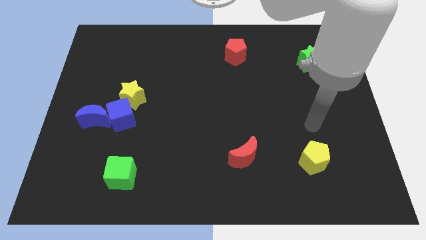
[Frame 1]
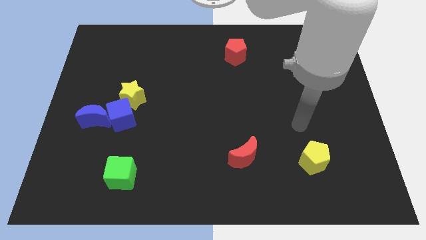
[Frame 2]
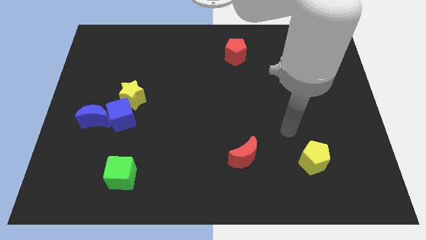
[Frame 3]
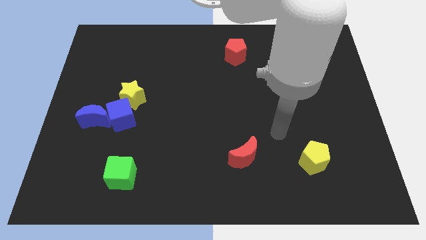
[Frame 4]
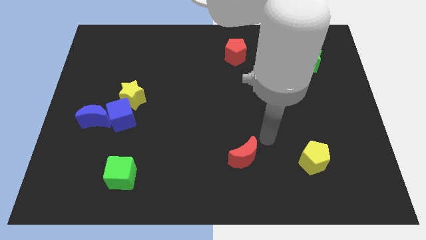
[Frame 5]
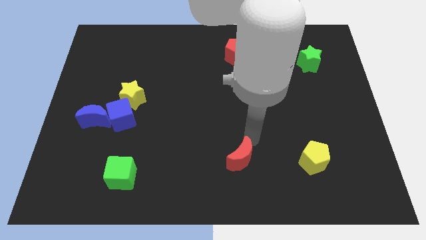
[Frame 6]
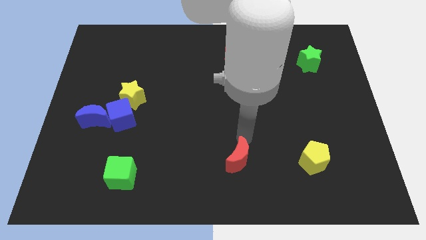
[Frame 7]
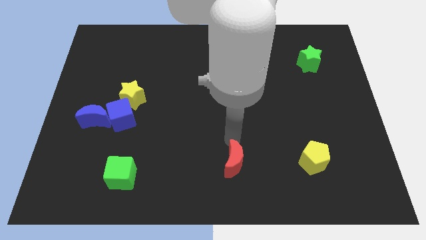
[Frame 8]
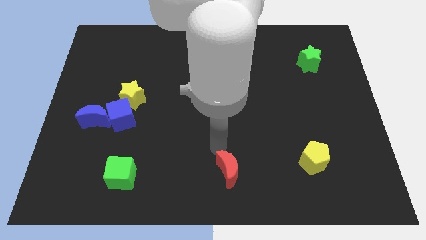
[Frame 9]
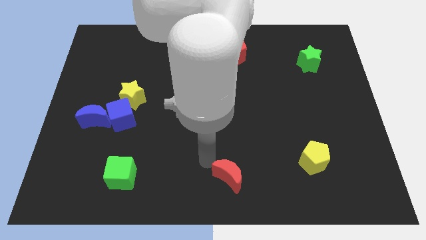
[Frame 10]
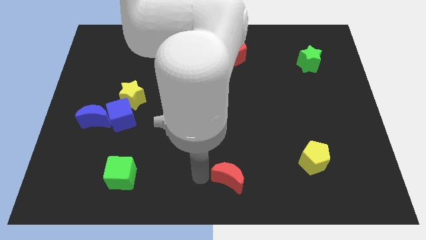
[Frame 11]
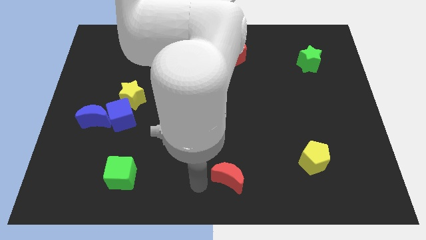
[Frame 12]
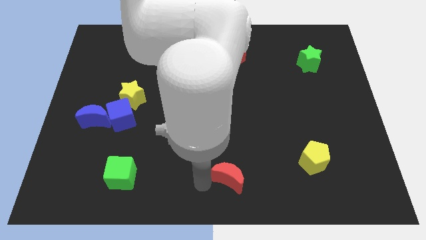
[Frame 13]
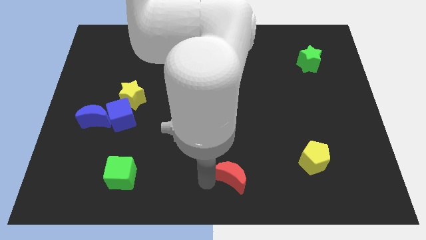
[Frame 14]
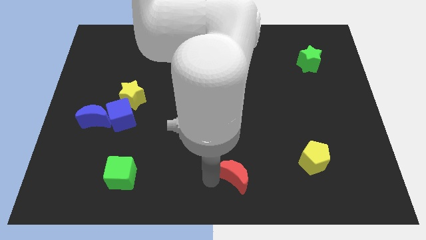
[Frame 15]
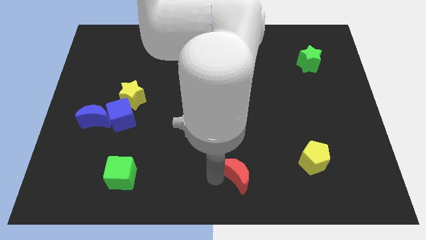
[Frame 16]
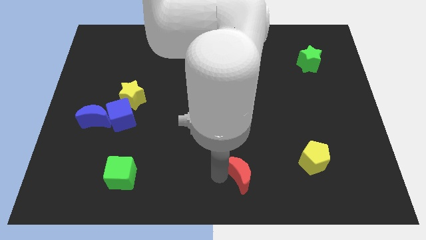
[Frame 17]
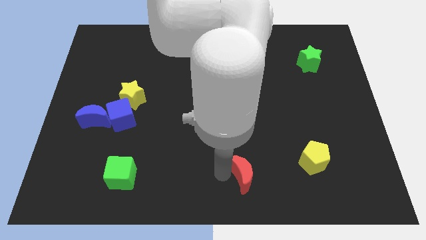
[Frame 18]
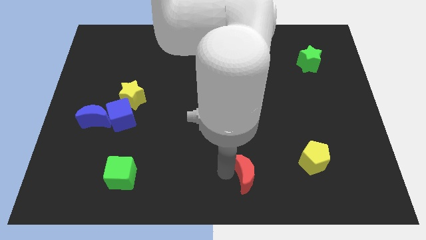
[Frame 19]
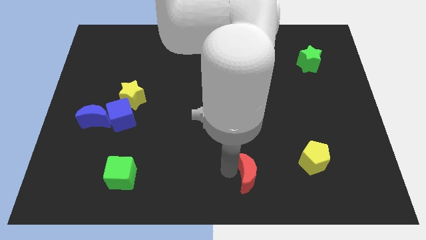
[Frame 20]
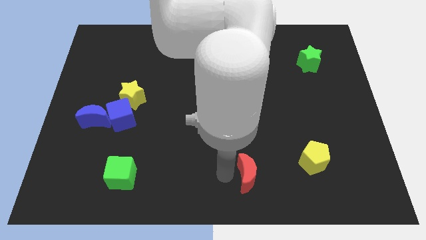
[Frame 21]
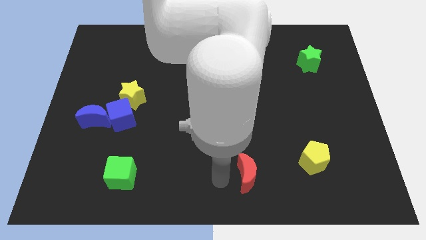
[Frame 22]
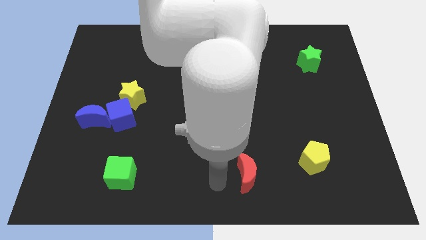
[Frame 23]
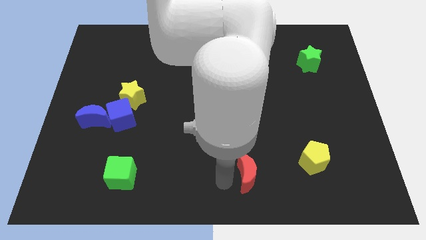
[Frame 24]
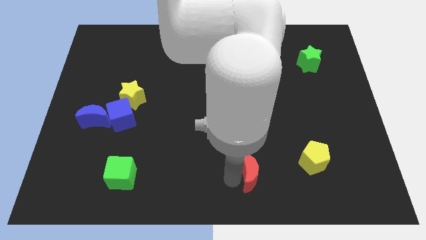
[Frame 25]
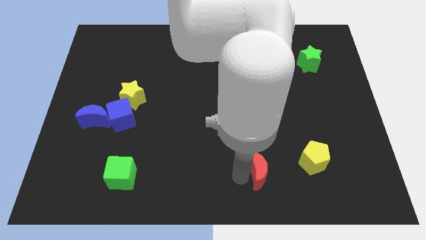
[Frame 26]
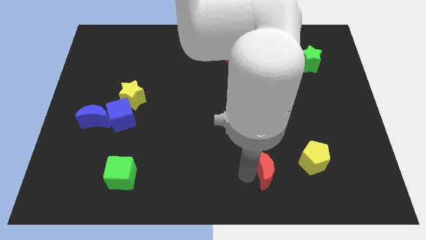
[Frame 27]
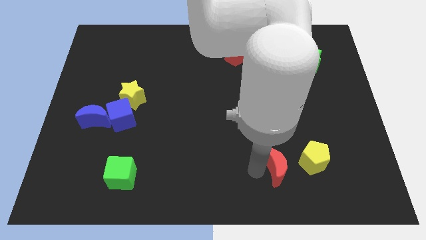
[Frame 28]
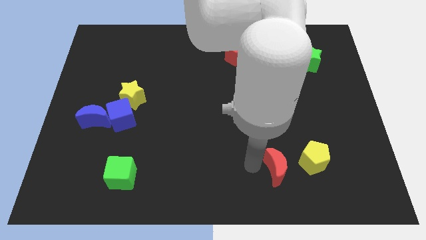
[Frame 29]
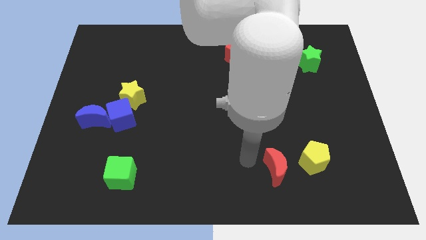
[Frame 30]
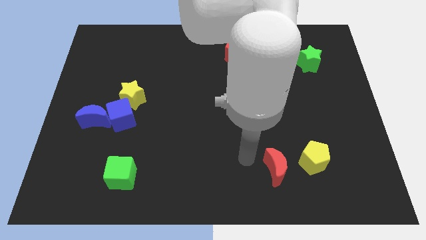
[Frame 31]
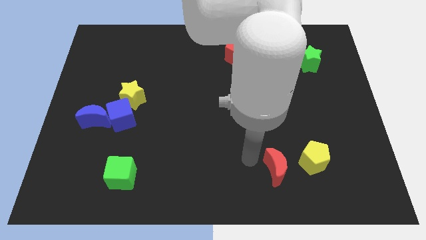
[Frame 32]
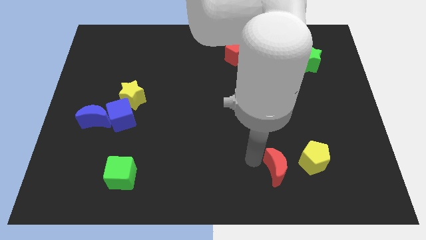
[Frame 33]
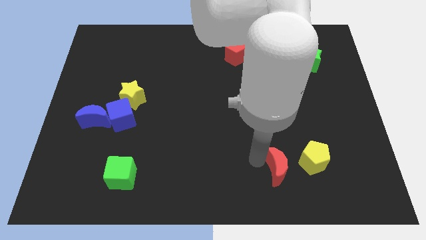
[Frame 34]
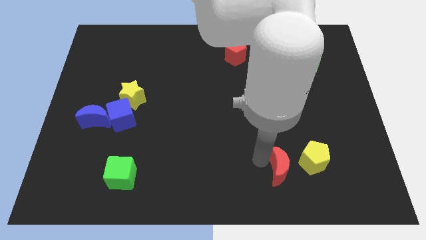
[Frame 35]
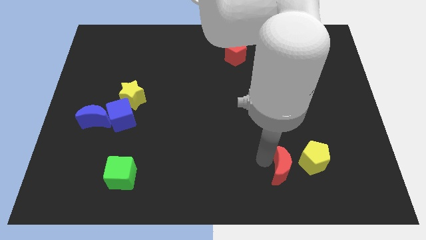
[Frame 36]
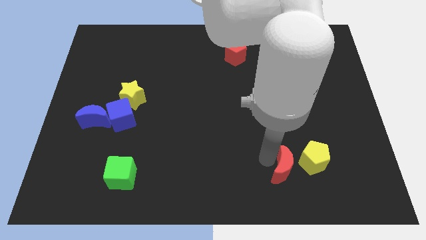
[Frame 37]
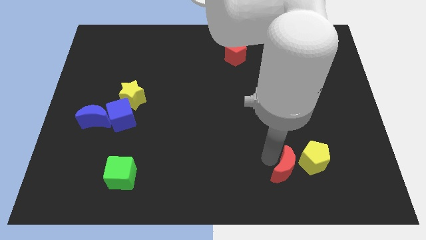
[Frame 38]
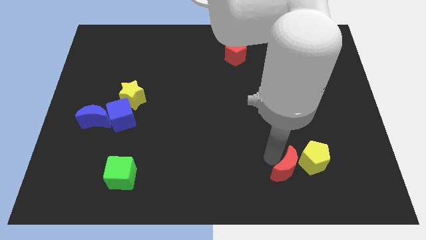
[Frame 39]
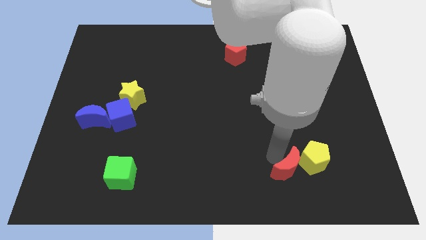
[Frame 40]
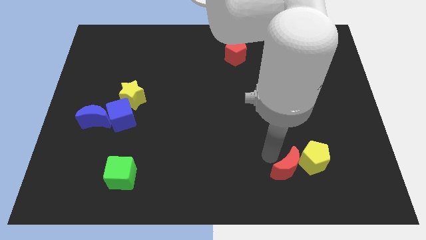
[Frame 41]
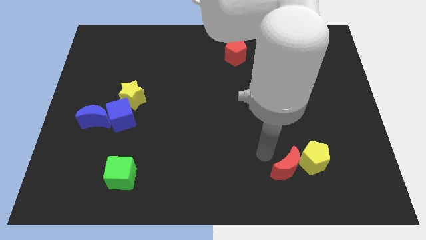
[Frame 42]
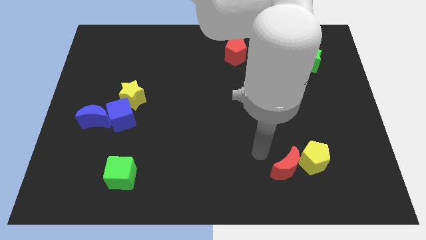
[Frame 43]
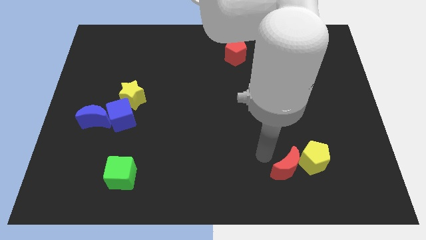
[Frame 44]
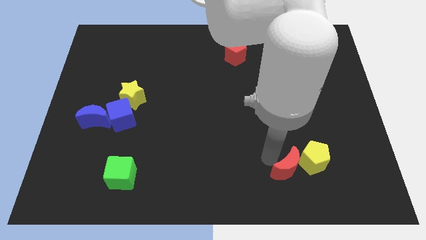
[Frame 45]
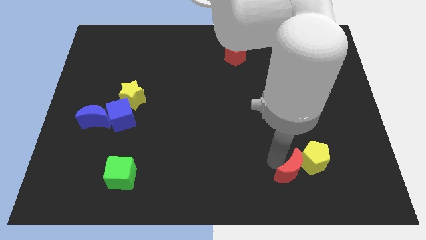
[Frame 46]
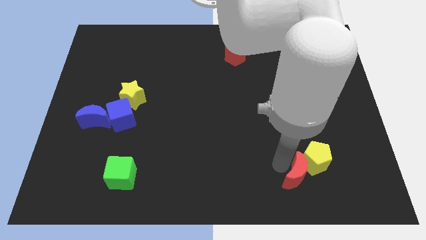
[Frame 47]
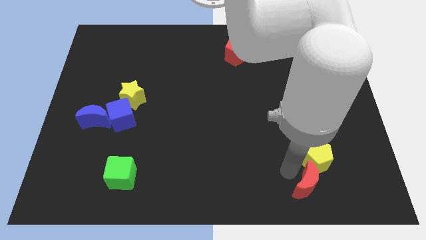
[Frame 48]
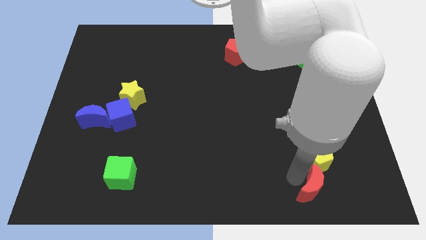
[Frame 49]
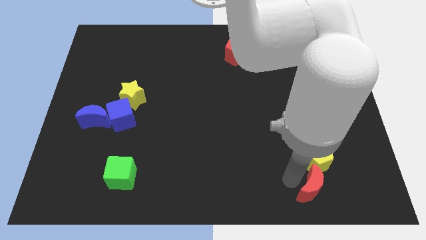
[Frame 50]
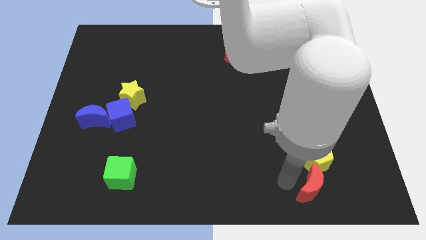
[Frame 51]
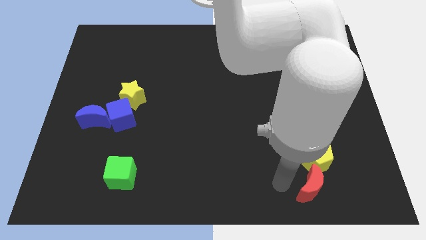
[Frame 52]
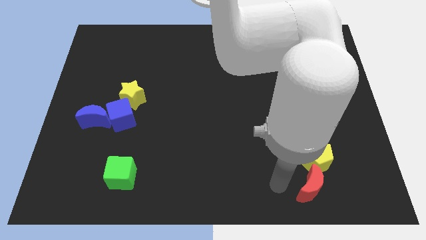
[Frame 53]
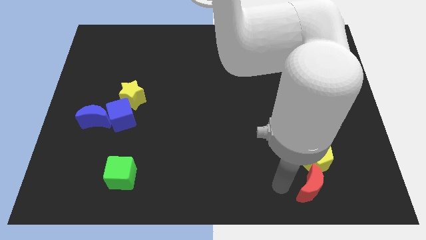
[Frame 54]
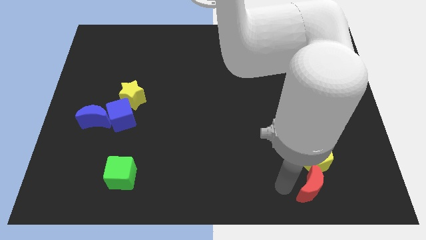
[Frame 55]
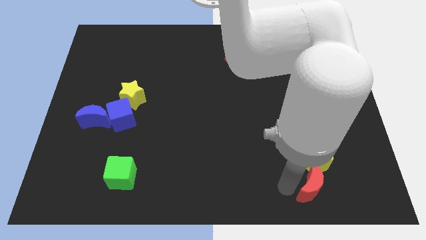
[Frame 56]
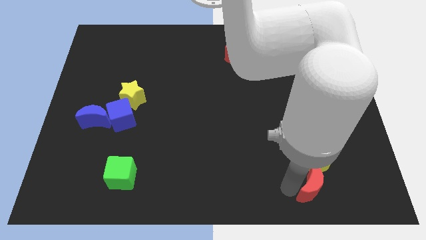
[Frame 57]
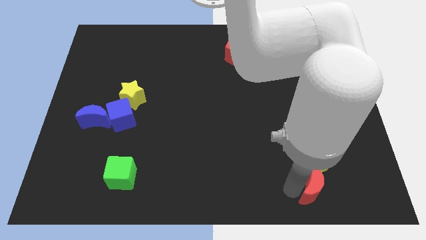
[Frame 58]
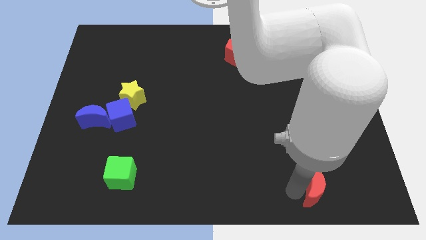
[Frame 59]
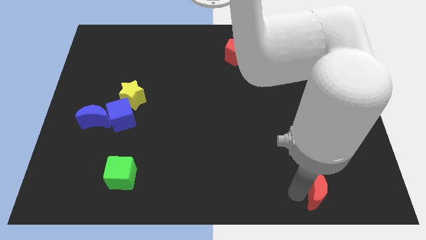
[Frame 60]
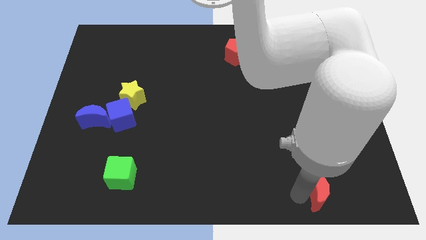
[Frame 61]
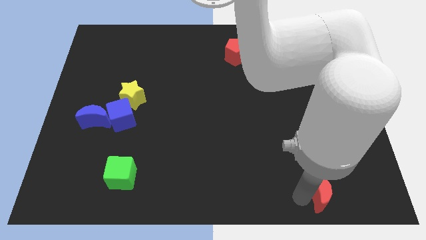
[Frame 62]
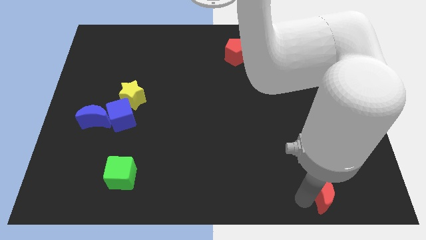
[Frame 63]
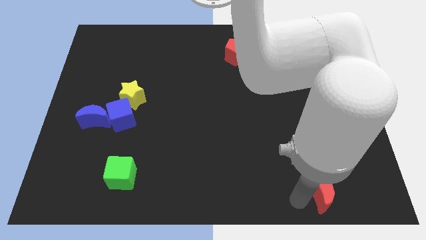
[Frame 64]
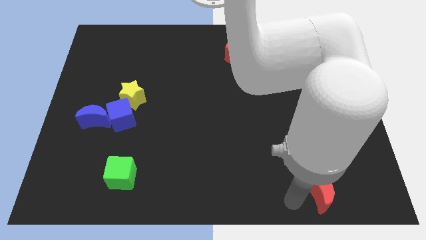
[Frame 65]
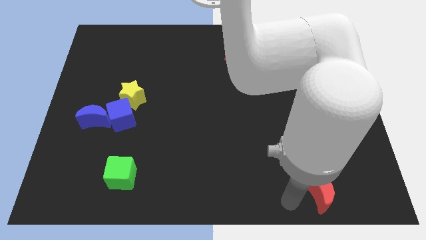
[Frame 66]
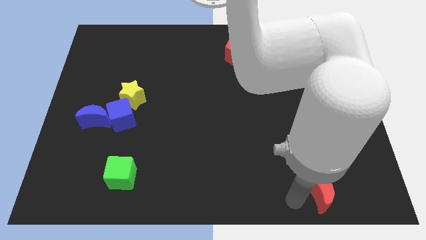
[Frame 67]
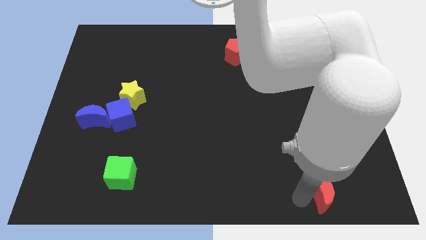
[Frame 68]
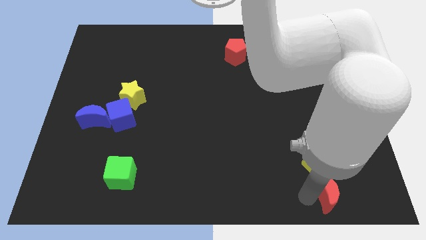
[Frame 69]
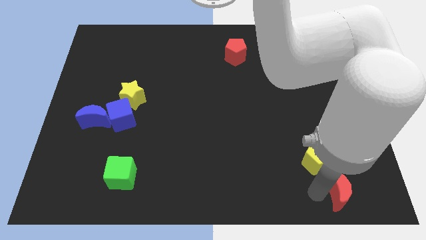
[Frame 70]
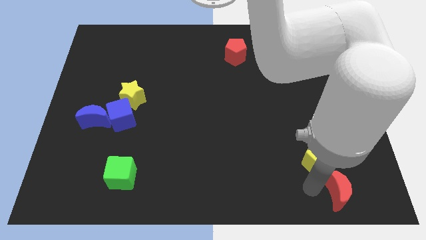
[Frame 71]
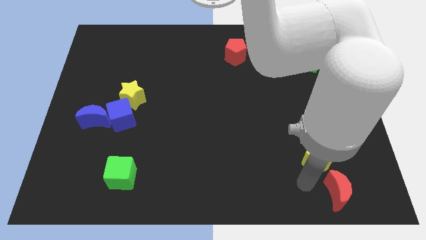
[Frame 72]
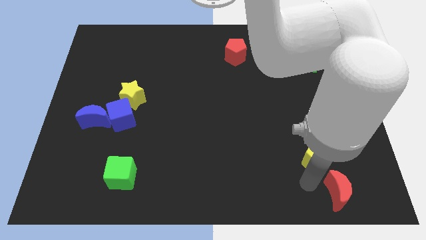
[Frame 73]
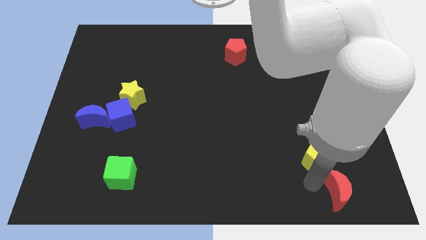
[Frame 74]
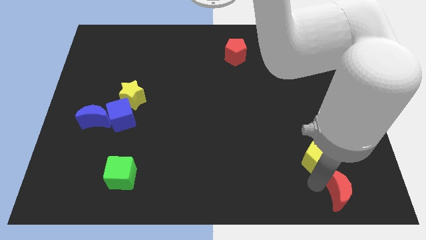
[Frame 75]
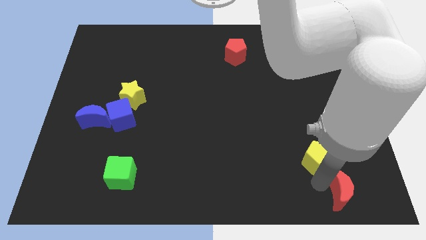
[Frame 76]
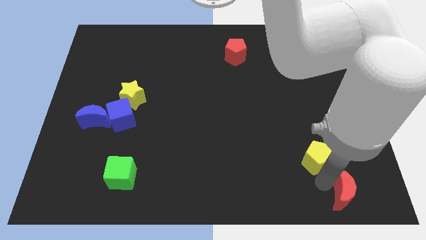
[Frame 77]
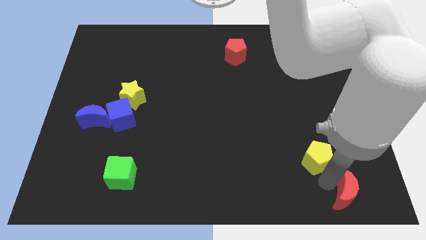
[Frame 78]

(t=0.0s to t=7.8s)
push the red moon to the bottom right of the board
